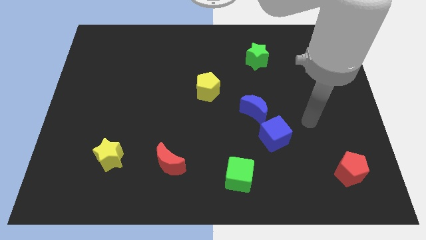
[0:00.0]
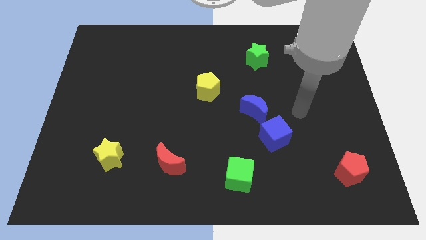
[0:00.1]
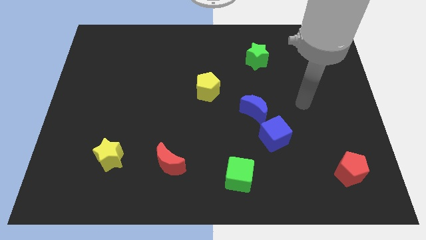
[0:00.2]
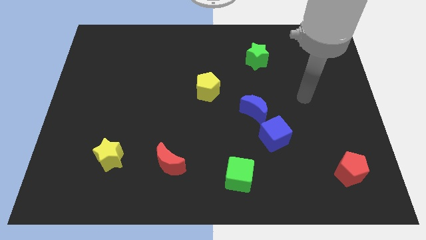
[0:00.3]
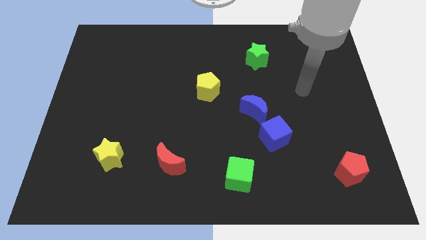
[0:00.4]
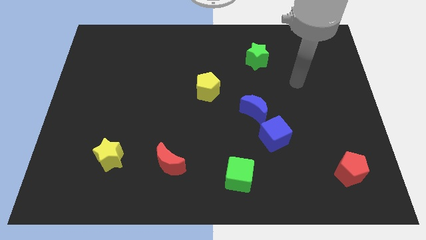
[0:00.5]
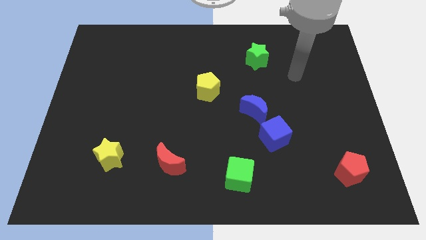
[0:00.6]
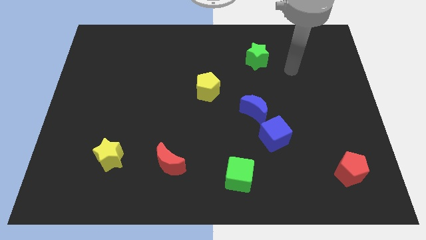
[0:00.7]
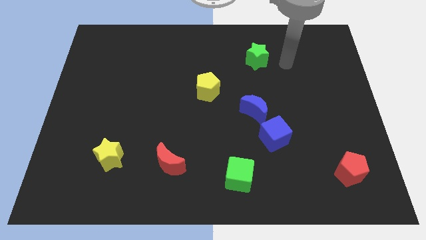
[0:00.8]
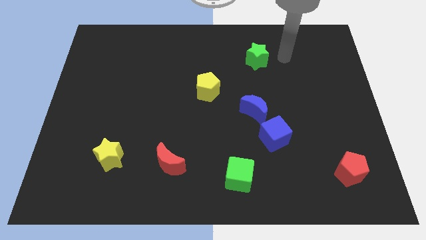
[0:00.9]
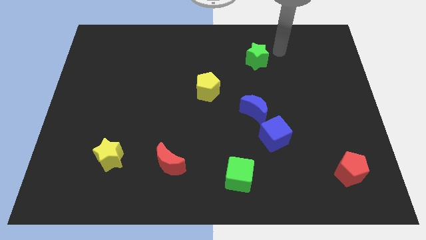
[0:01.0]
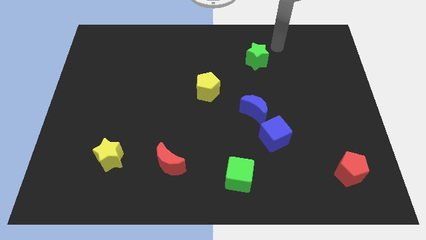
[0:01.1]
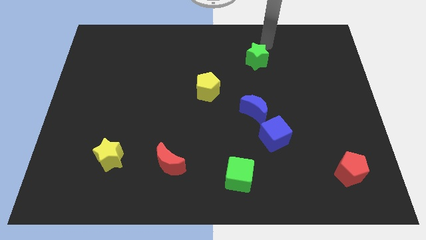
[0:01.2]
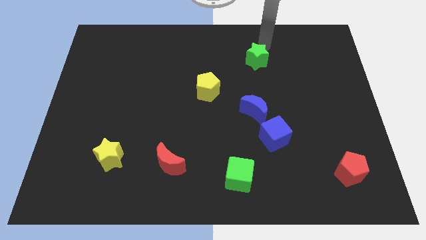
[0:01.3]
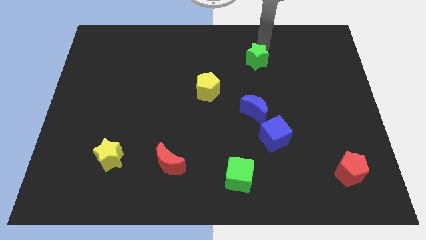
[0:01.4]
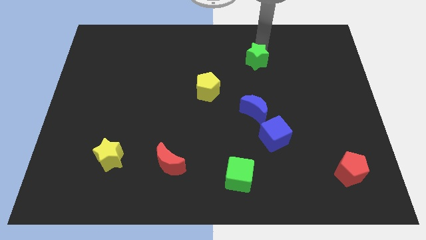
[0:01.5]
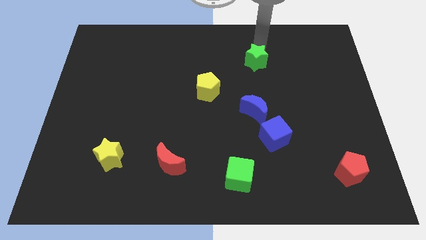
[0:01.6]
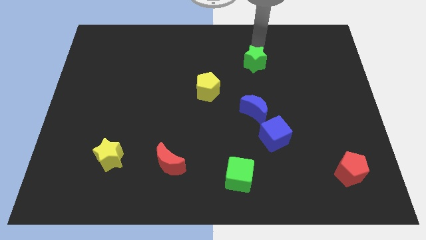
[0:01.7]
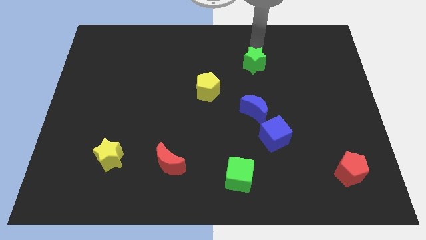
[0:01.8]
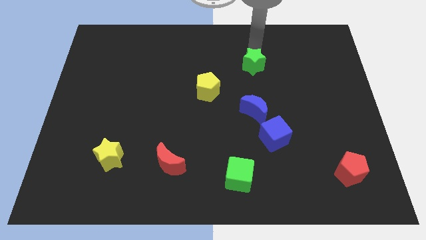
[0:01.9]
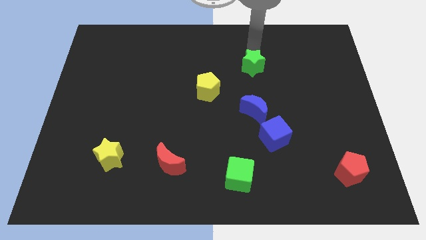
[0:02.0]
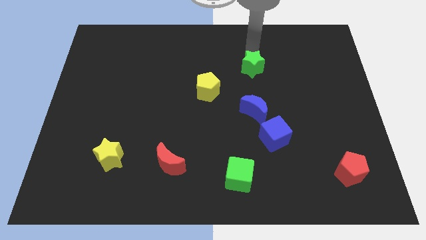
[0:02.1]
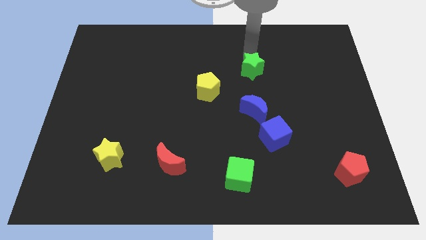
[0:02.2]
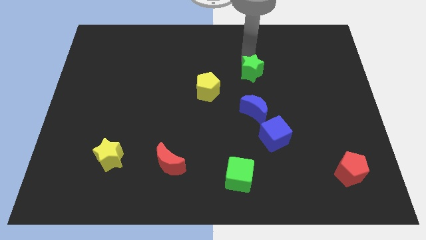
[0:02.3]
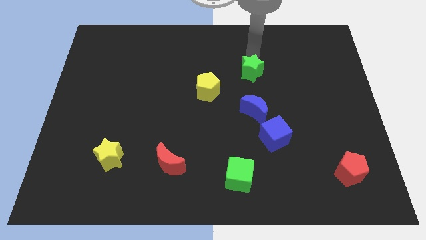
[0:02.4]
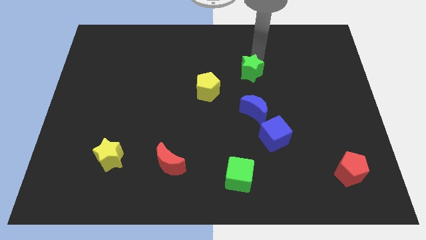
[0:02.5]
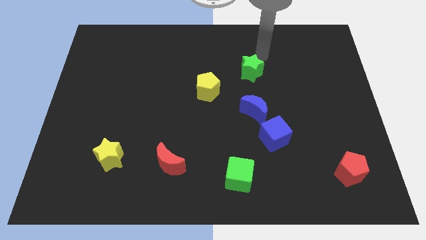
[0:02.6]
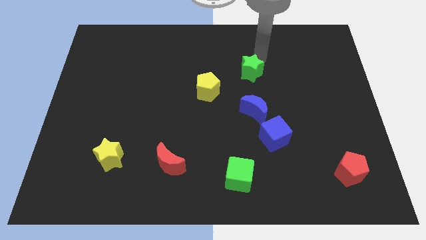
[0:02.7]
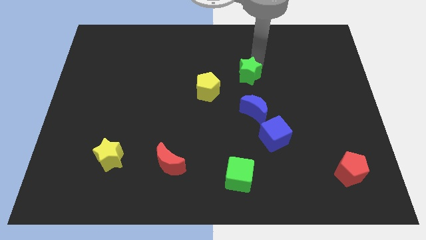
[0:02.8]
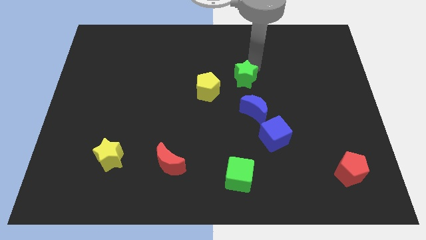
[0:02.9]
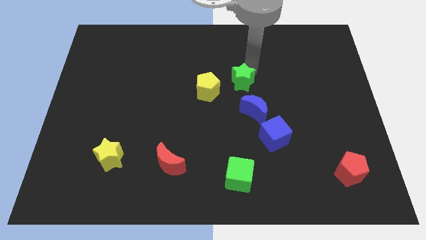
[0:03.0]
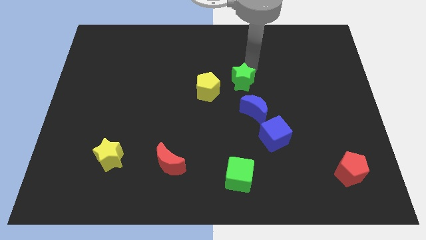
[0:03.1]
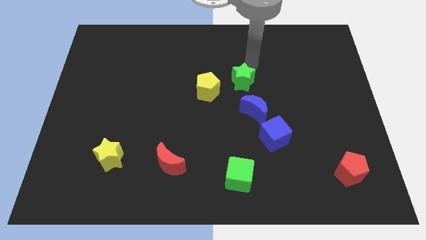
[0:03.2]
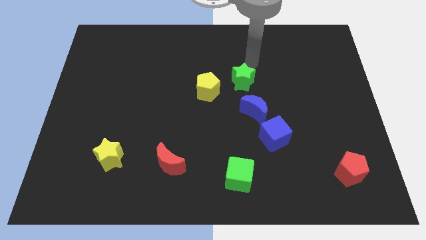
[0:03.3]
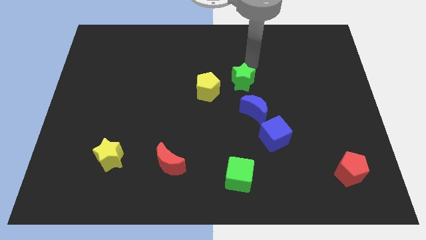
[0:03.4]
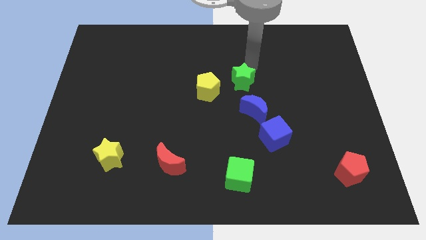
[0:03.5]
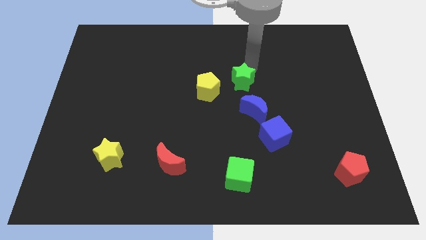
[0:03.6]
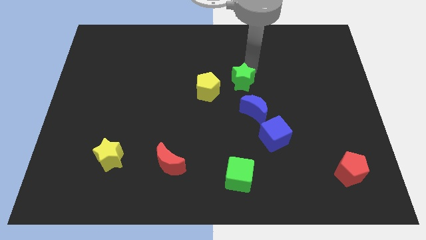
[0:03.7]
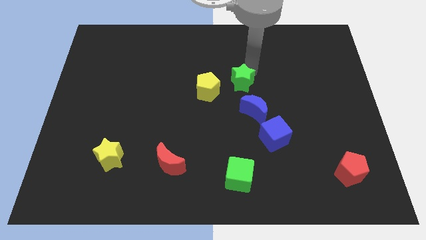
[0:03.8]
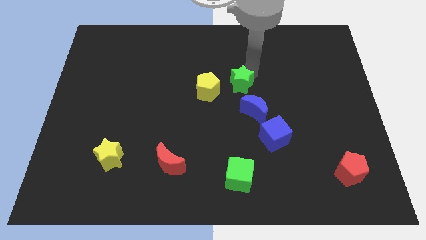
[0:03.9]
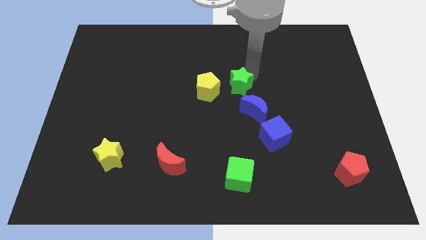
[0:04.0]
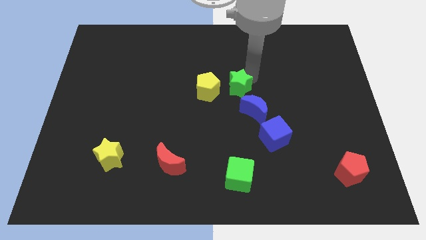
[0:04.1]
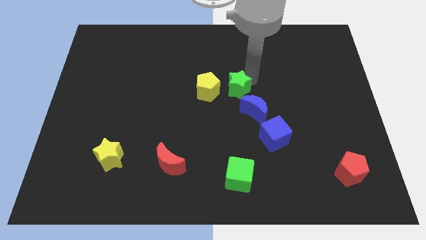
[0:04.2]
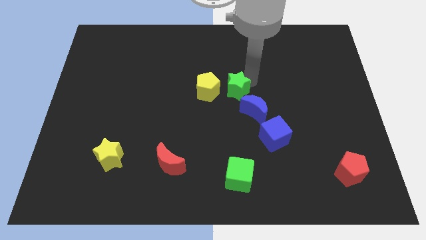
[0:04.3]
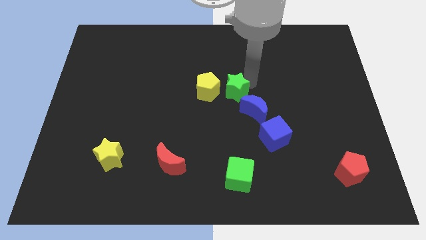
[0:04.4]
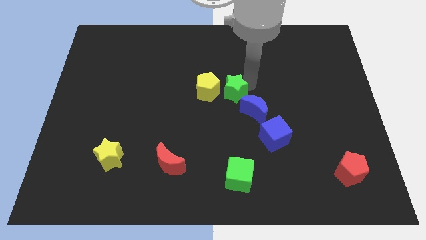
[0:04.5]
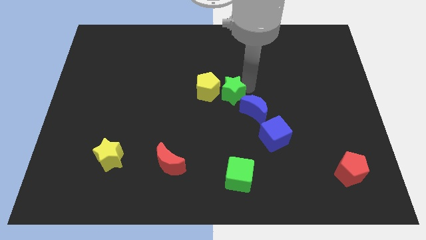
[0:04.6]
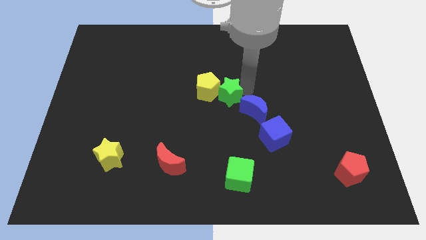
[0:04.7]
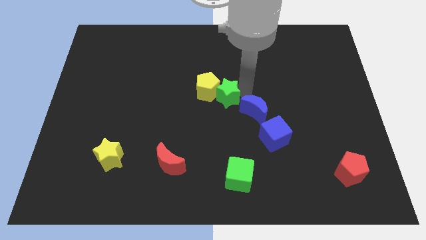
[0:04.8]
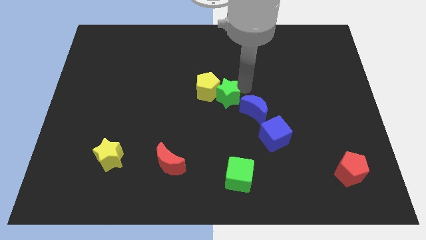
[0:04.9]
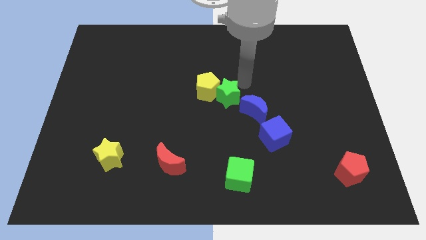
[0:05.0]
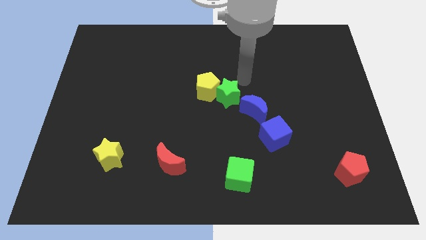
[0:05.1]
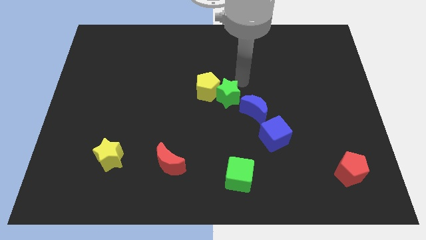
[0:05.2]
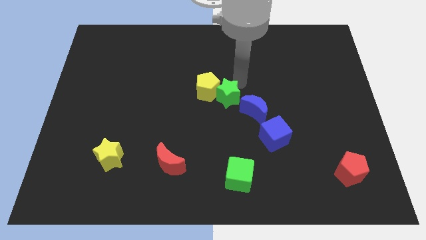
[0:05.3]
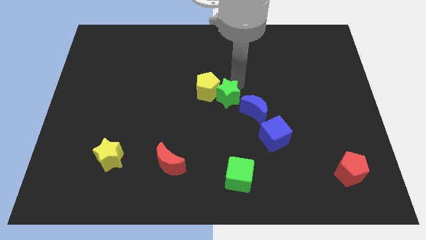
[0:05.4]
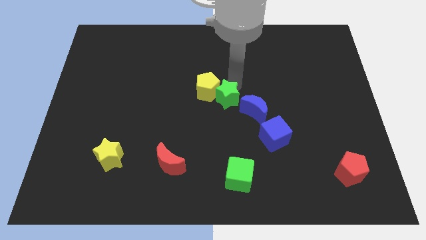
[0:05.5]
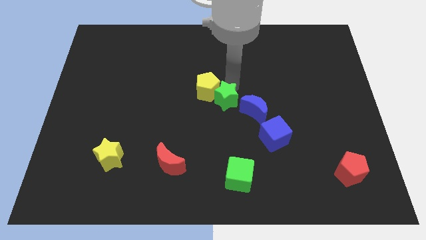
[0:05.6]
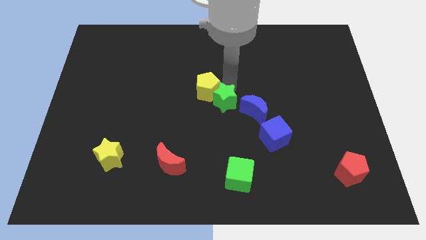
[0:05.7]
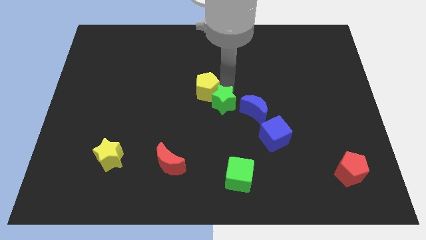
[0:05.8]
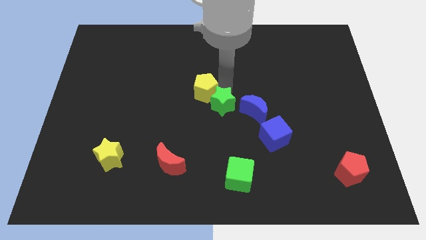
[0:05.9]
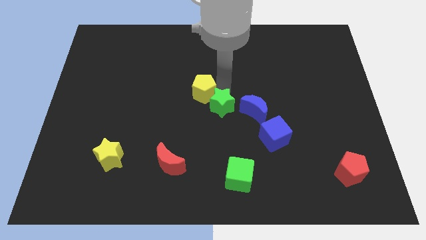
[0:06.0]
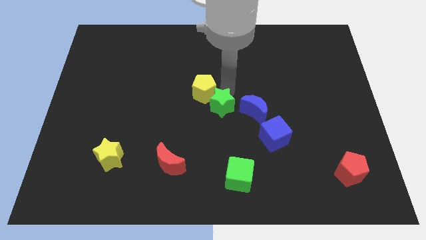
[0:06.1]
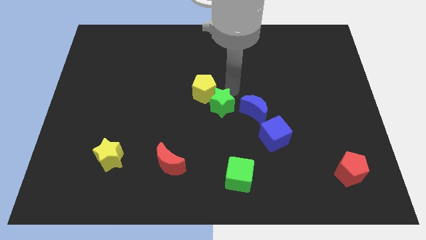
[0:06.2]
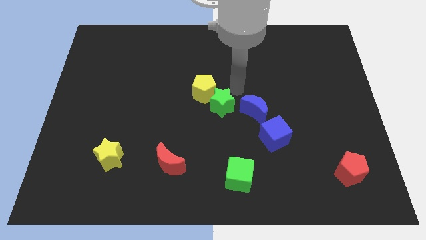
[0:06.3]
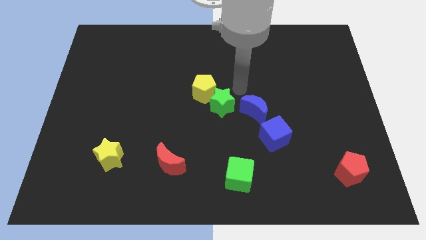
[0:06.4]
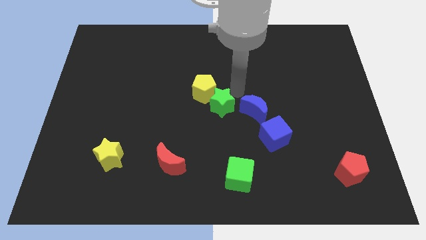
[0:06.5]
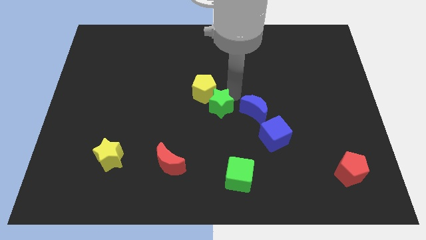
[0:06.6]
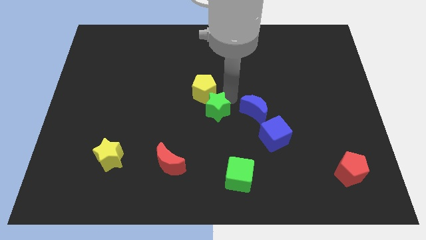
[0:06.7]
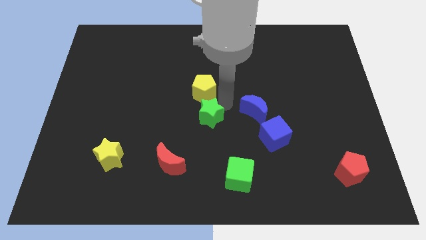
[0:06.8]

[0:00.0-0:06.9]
push the green star down and left

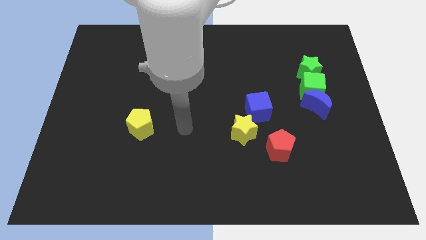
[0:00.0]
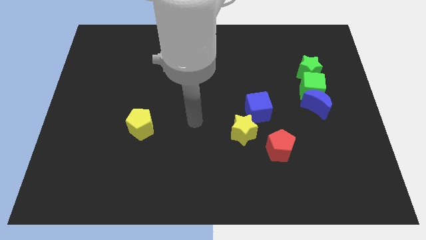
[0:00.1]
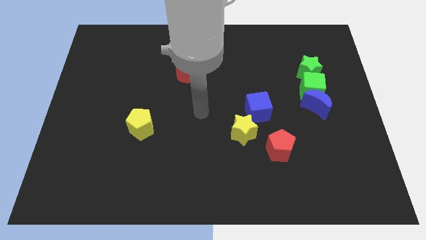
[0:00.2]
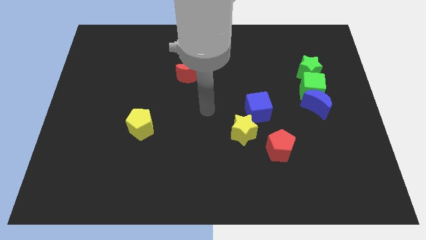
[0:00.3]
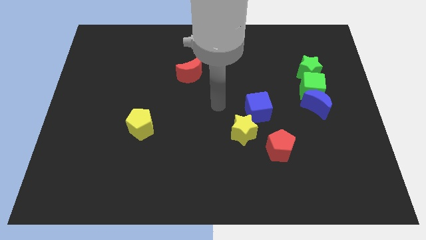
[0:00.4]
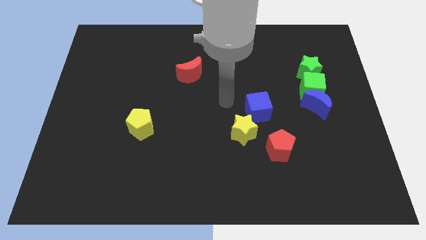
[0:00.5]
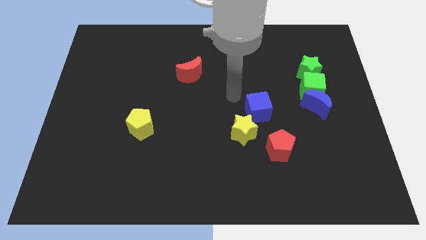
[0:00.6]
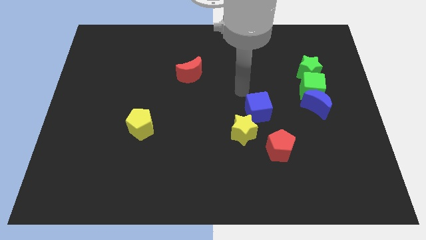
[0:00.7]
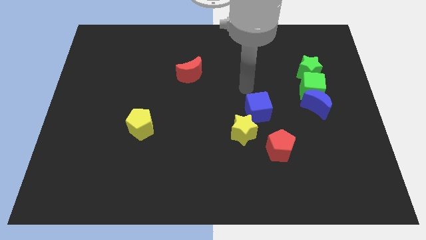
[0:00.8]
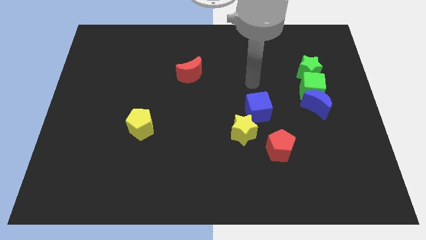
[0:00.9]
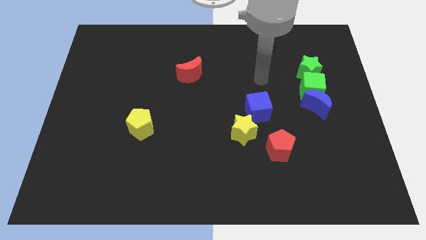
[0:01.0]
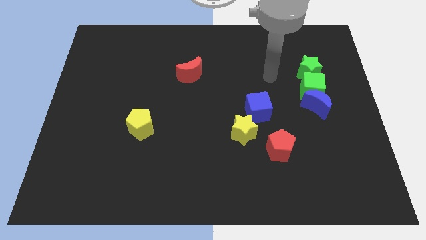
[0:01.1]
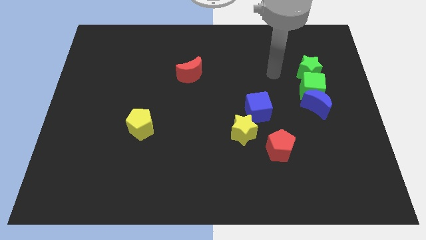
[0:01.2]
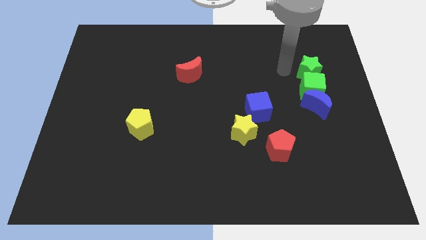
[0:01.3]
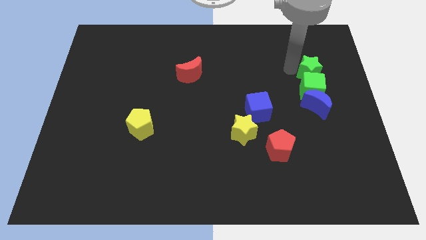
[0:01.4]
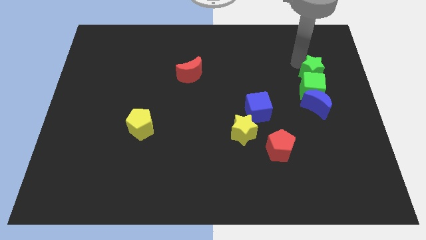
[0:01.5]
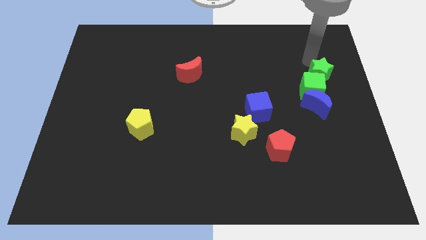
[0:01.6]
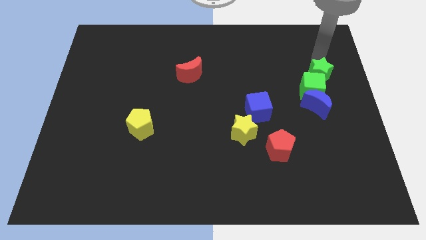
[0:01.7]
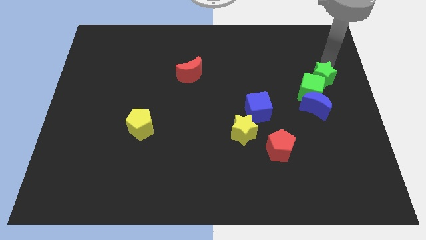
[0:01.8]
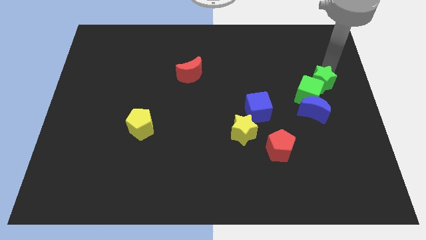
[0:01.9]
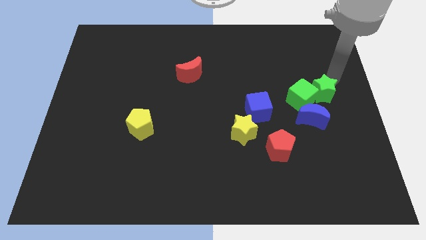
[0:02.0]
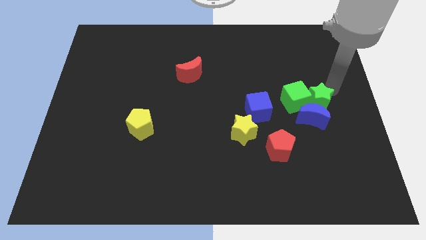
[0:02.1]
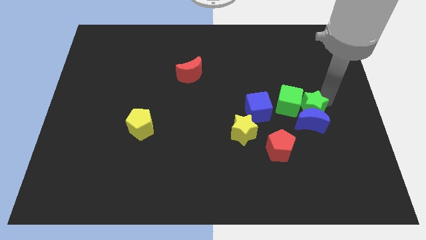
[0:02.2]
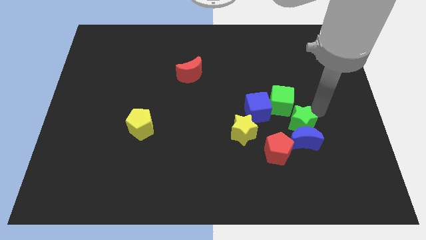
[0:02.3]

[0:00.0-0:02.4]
push the green cube slightly to the left
